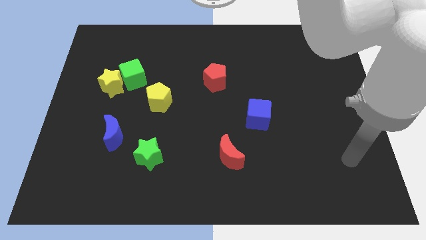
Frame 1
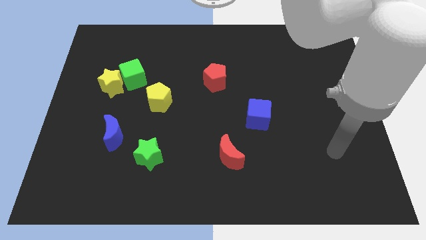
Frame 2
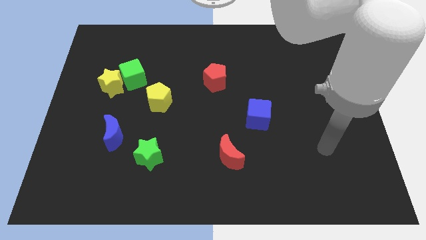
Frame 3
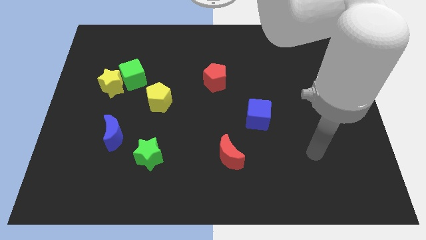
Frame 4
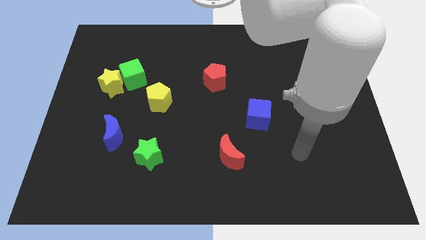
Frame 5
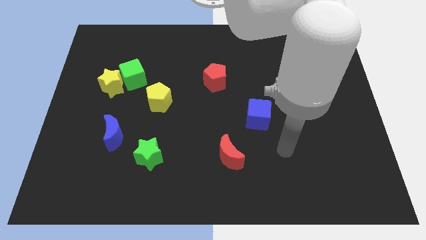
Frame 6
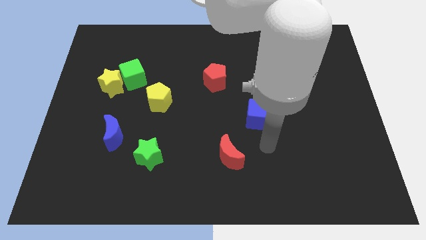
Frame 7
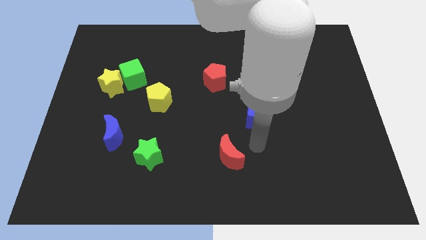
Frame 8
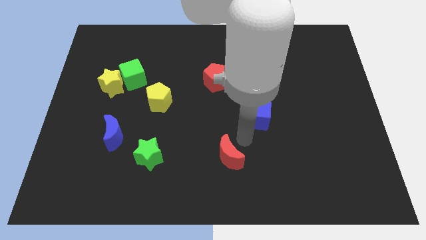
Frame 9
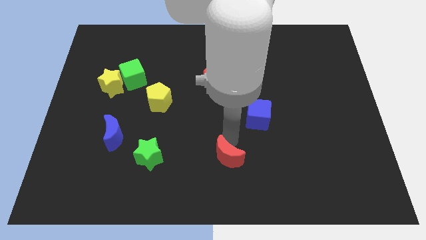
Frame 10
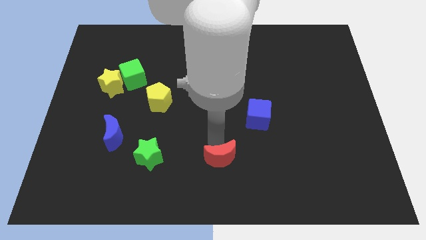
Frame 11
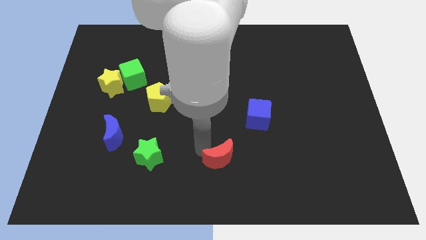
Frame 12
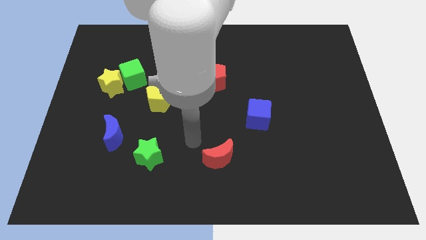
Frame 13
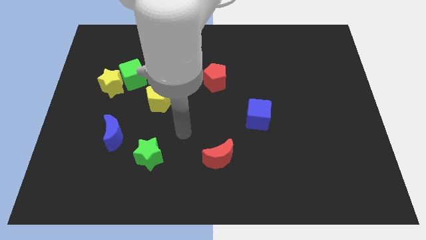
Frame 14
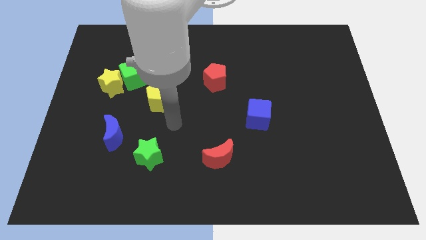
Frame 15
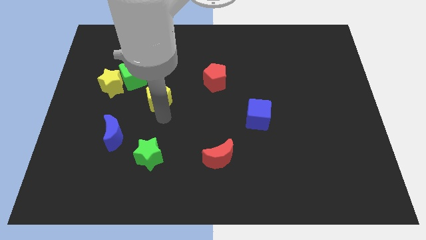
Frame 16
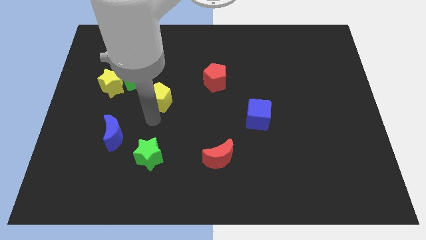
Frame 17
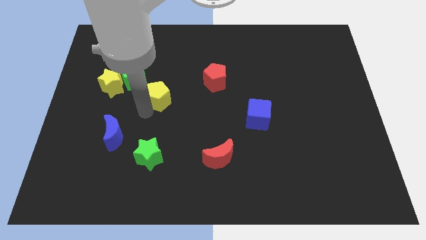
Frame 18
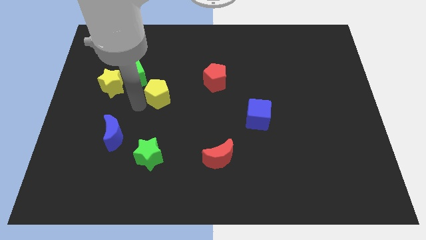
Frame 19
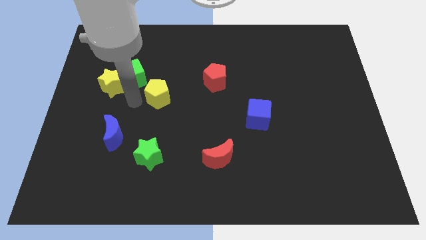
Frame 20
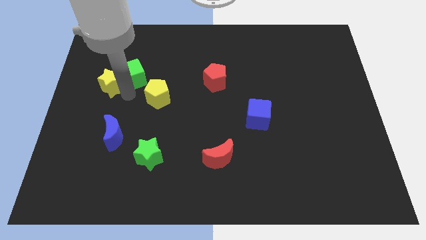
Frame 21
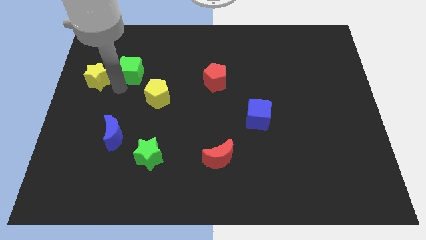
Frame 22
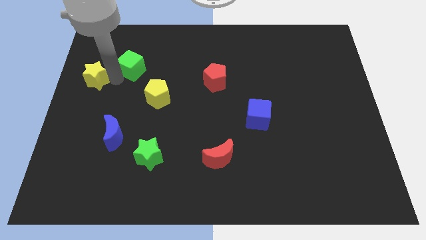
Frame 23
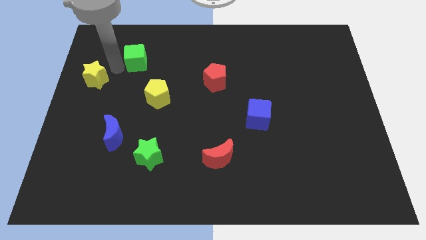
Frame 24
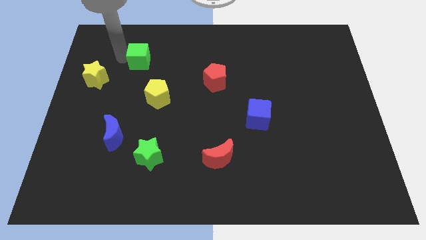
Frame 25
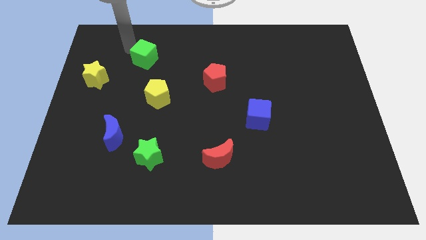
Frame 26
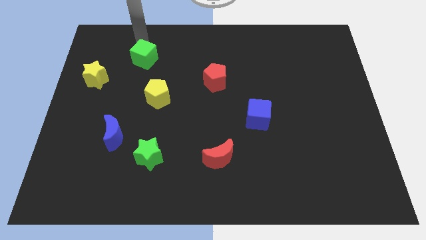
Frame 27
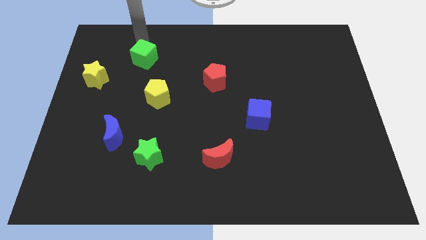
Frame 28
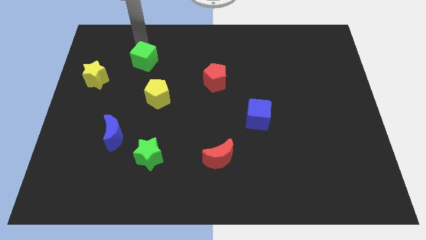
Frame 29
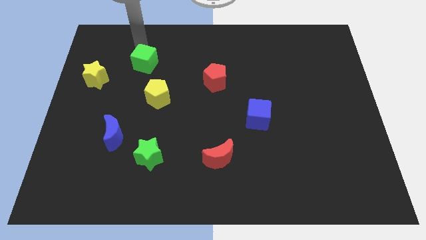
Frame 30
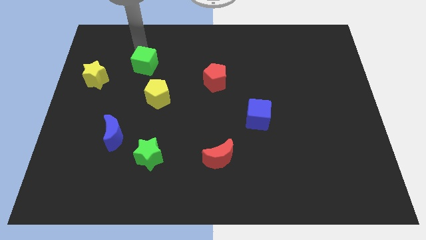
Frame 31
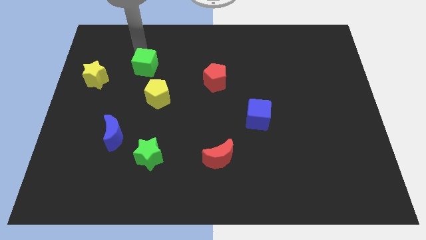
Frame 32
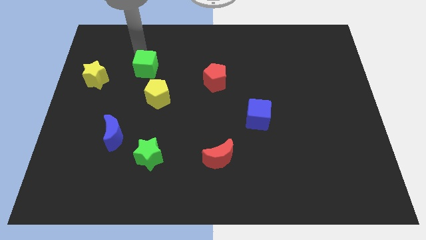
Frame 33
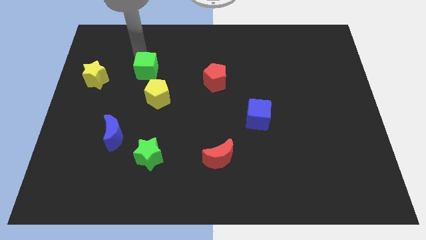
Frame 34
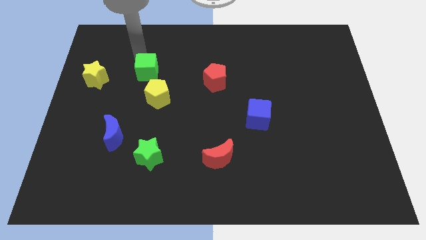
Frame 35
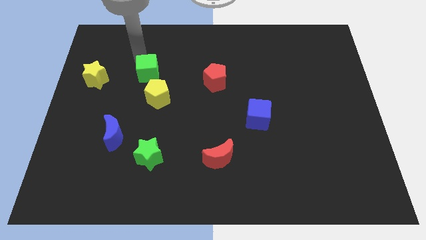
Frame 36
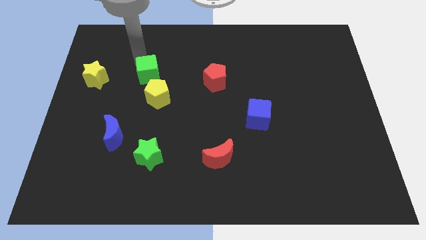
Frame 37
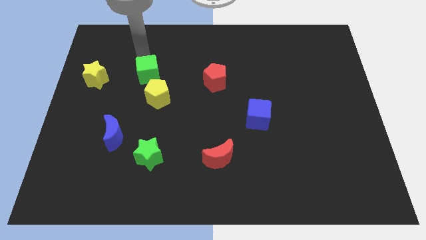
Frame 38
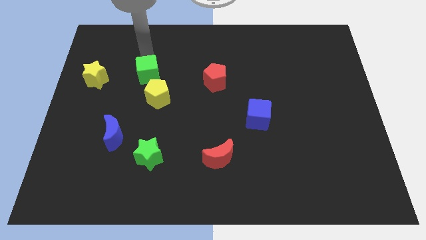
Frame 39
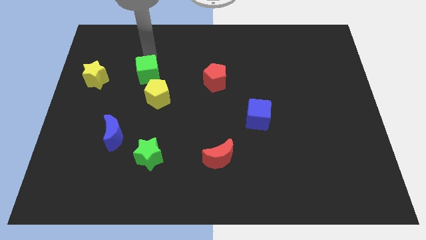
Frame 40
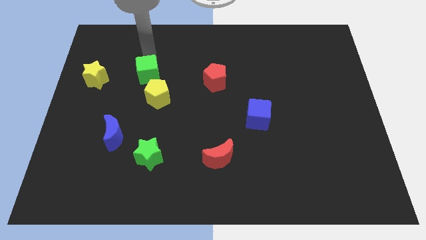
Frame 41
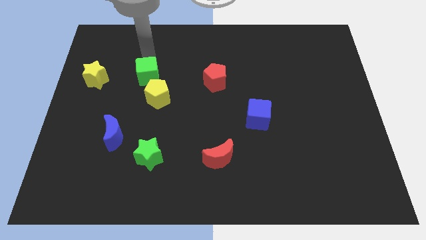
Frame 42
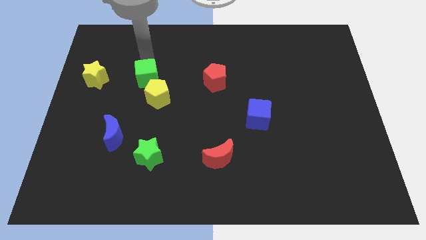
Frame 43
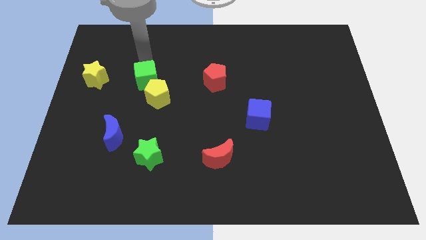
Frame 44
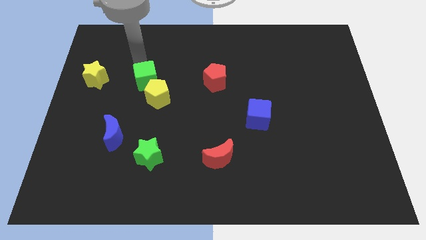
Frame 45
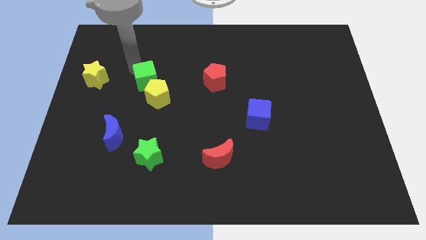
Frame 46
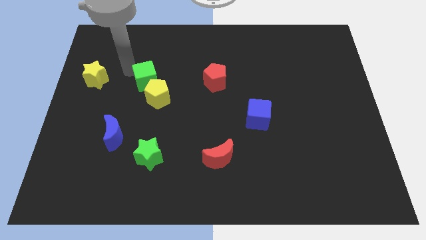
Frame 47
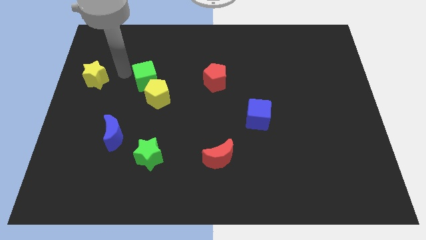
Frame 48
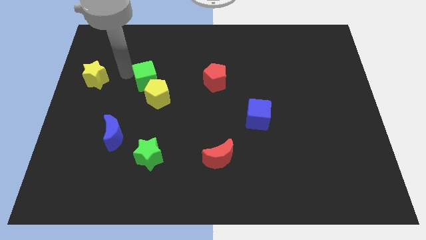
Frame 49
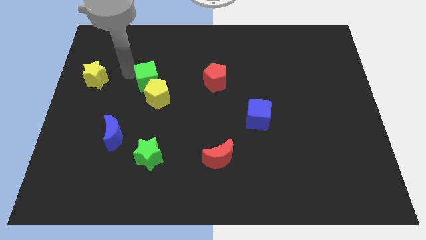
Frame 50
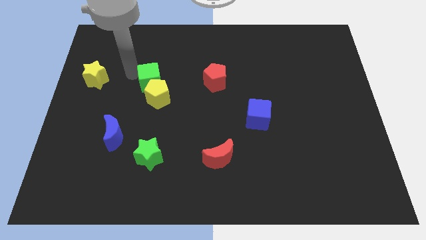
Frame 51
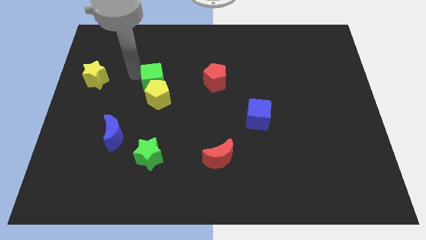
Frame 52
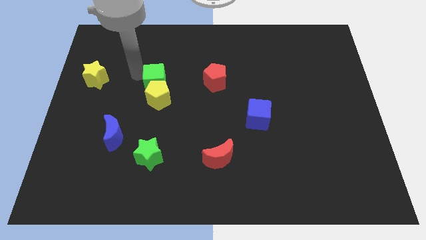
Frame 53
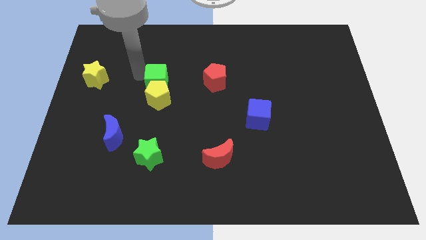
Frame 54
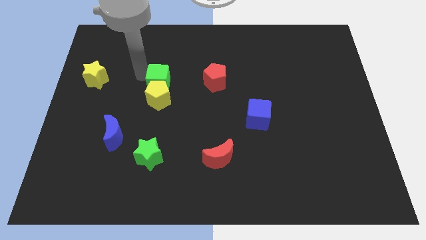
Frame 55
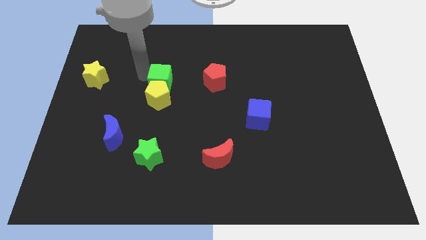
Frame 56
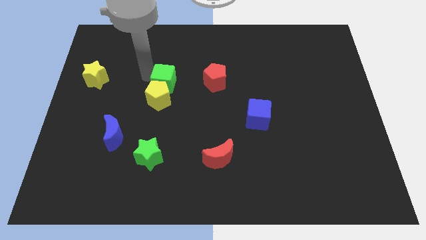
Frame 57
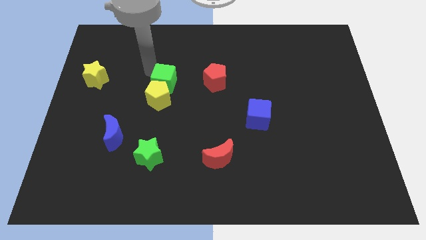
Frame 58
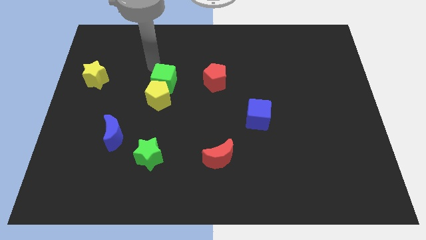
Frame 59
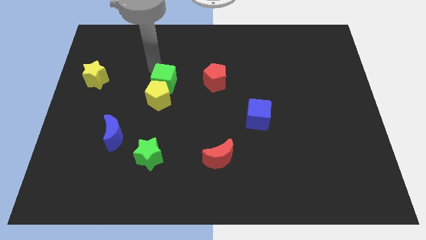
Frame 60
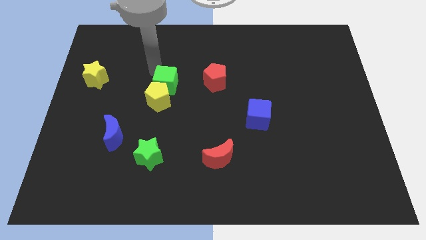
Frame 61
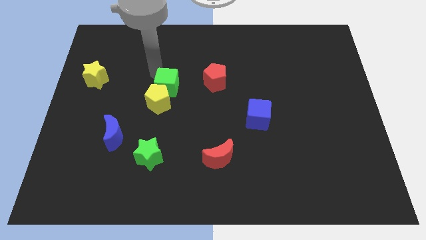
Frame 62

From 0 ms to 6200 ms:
slide the green cube downwards and to the right diagonally slightly

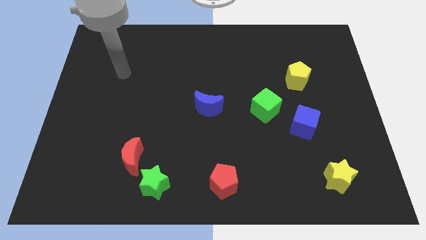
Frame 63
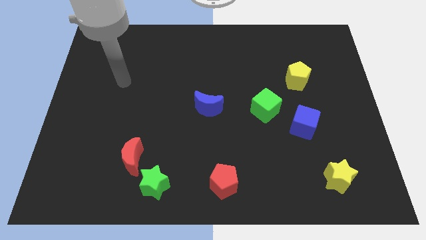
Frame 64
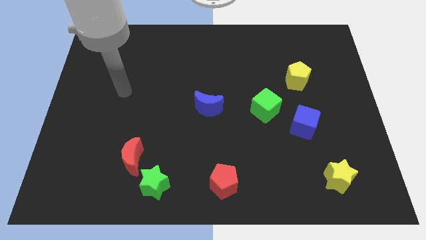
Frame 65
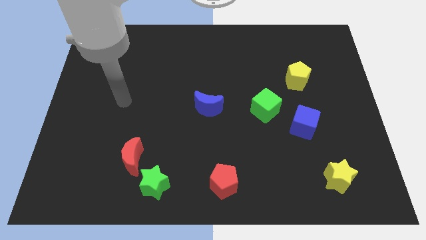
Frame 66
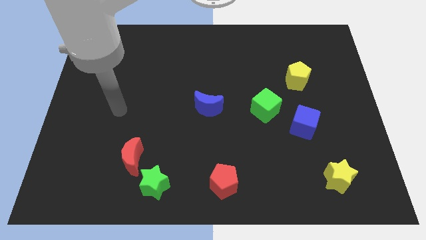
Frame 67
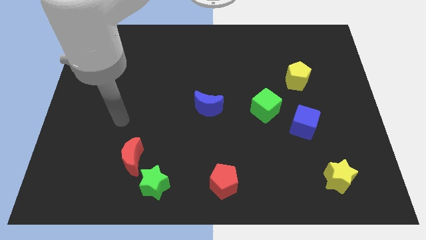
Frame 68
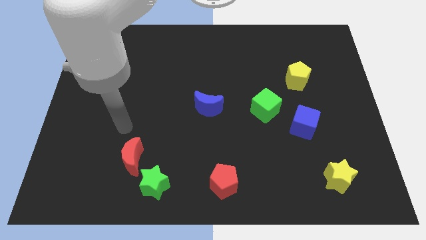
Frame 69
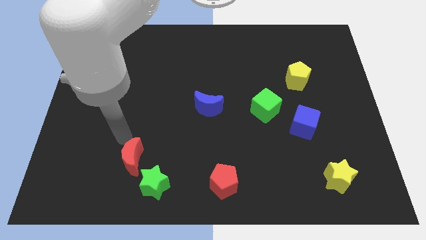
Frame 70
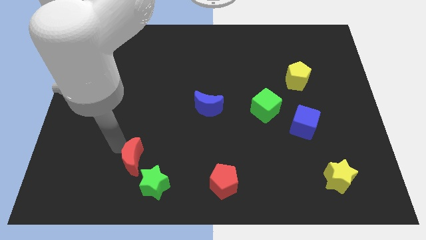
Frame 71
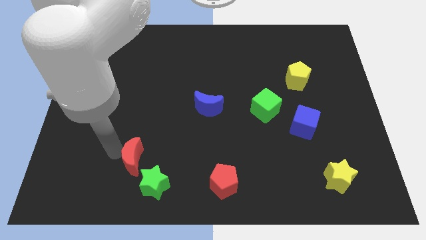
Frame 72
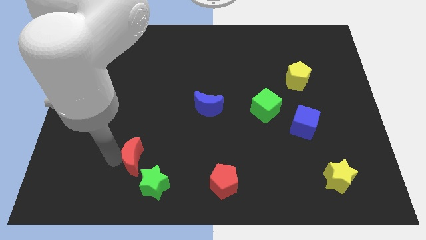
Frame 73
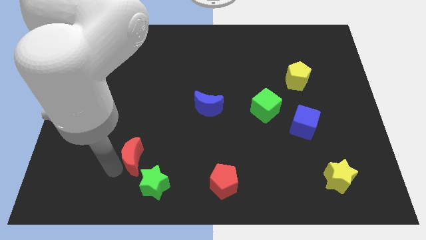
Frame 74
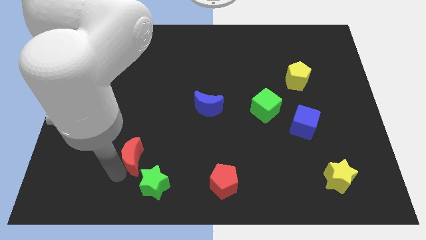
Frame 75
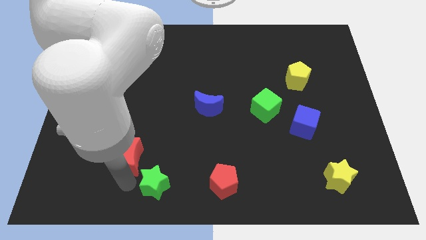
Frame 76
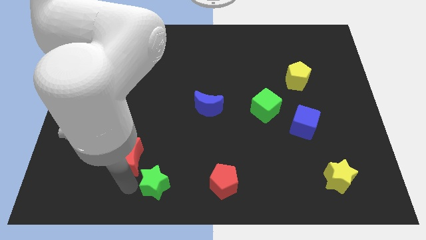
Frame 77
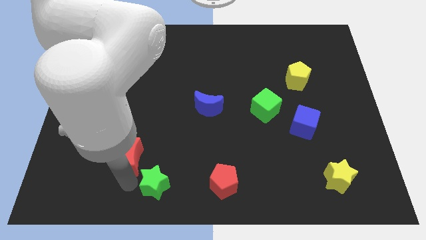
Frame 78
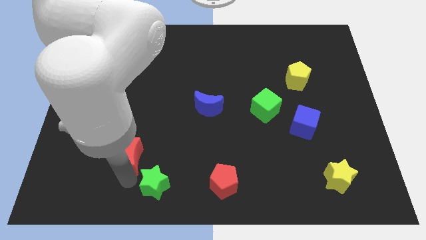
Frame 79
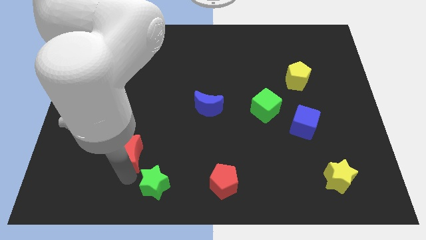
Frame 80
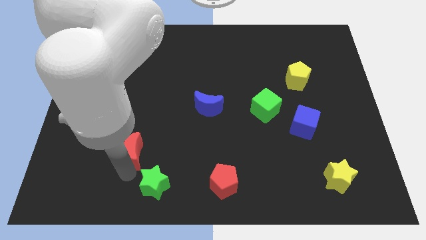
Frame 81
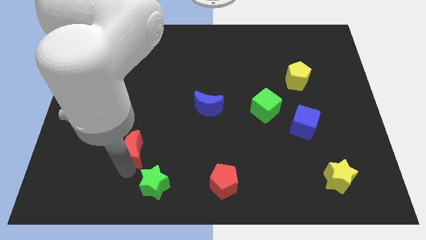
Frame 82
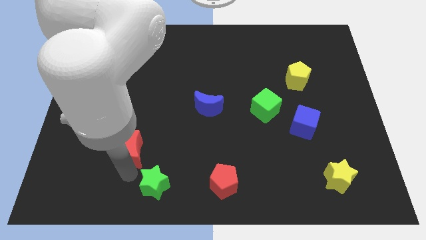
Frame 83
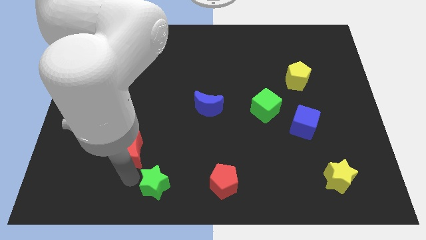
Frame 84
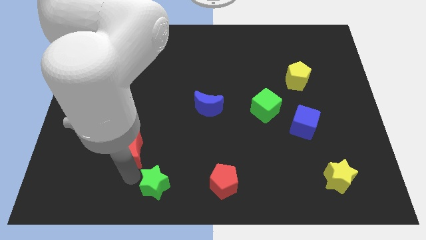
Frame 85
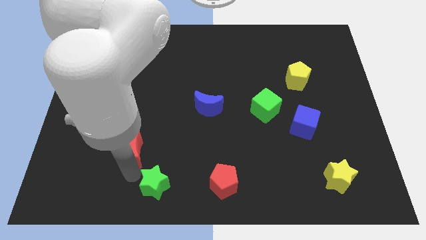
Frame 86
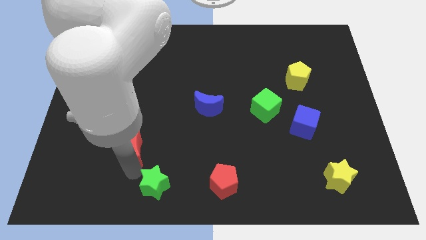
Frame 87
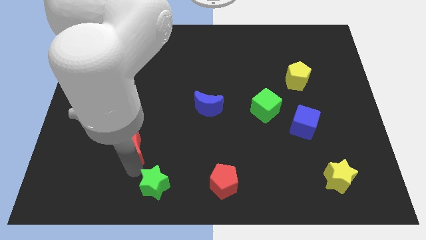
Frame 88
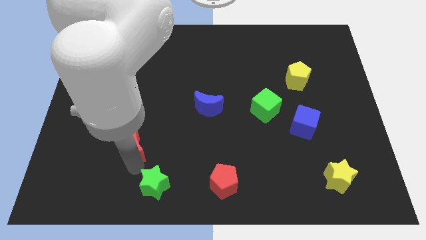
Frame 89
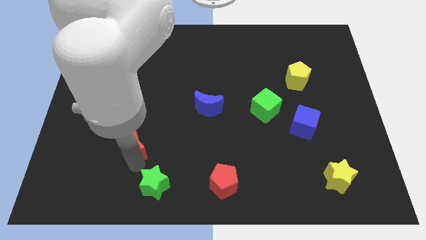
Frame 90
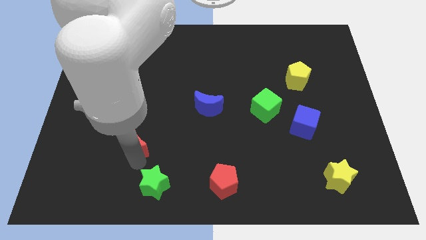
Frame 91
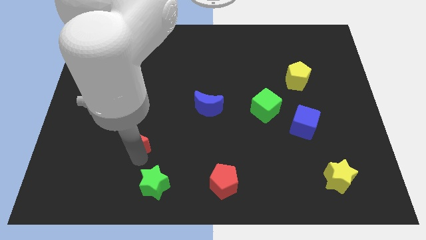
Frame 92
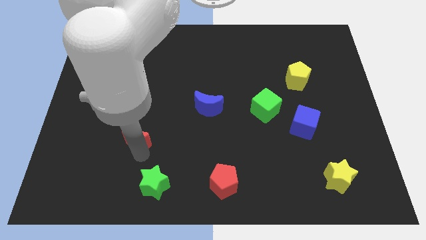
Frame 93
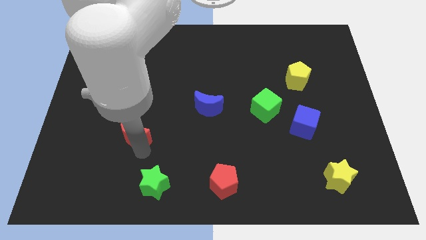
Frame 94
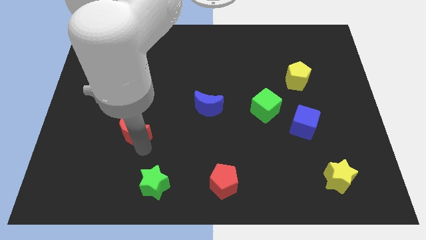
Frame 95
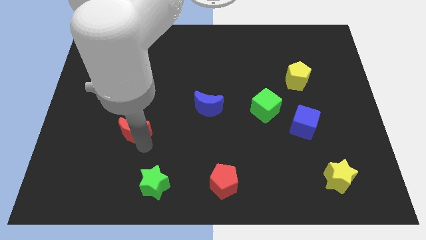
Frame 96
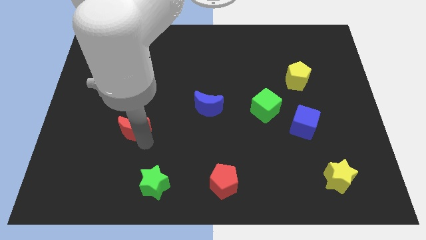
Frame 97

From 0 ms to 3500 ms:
slightly slide the red moon upwards
